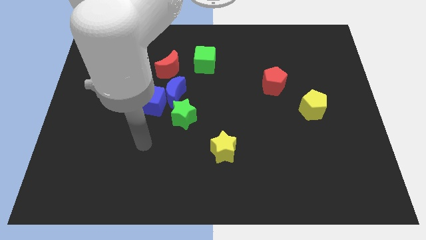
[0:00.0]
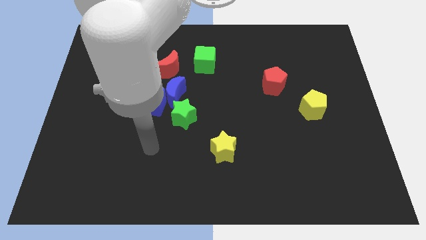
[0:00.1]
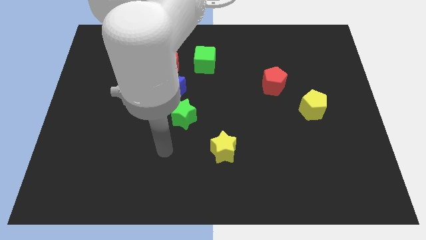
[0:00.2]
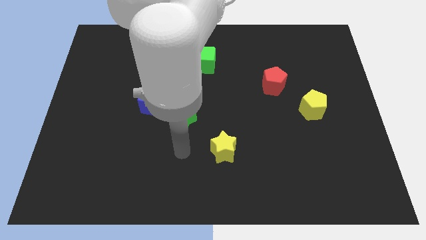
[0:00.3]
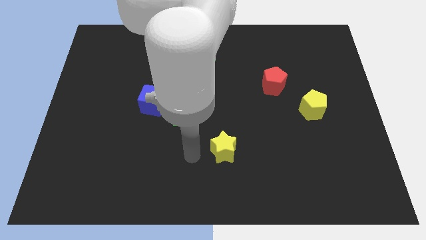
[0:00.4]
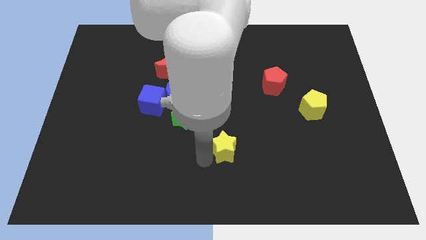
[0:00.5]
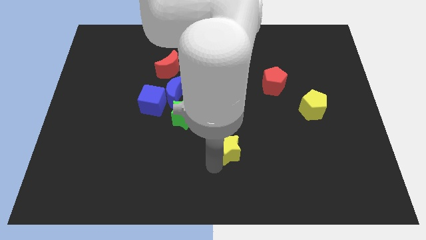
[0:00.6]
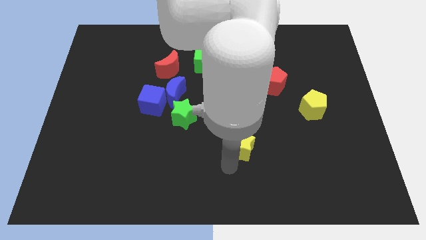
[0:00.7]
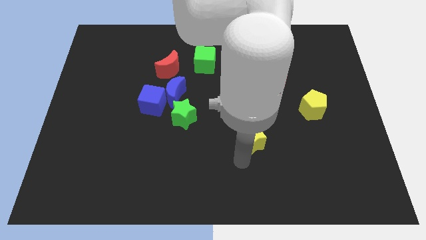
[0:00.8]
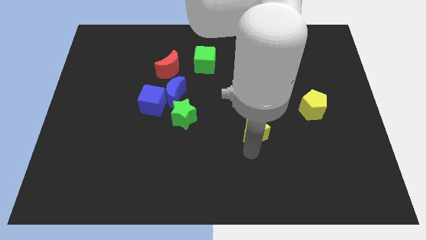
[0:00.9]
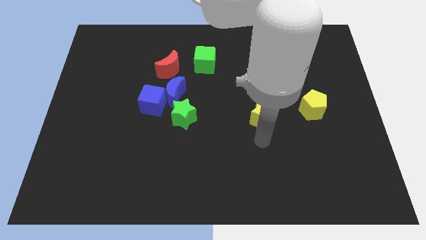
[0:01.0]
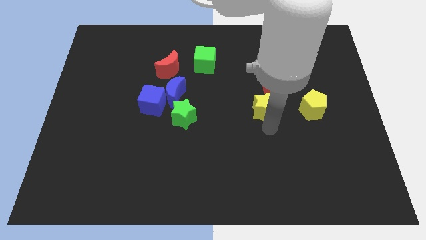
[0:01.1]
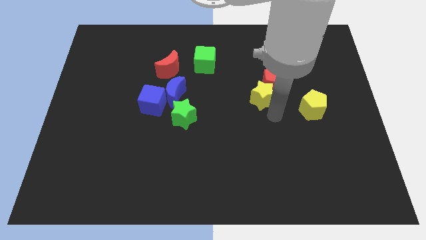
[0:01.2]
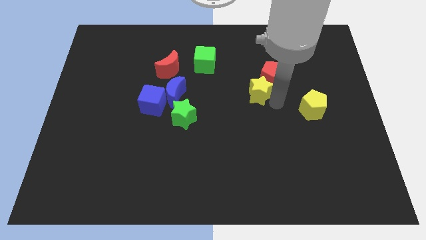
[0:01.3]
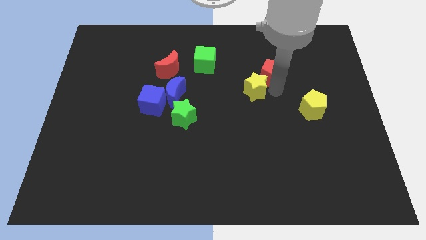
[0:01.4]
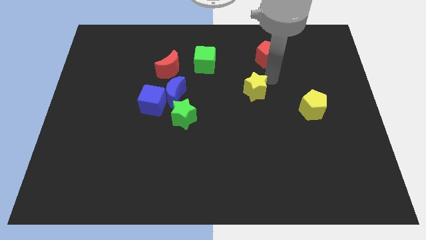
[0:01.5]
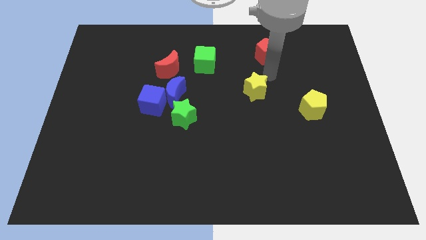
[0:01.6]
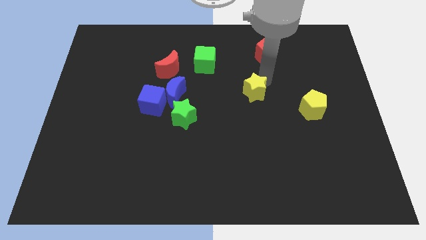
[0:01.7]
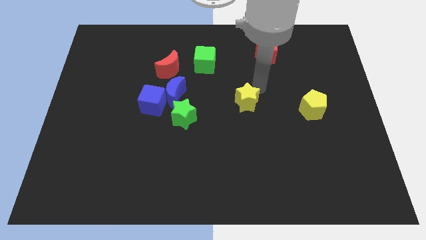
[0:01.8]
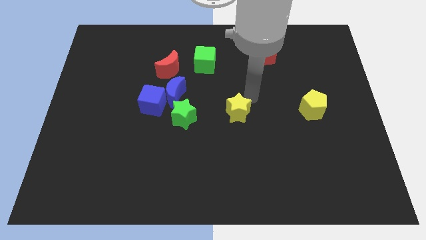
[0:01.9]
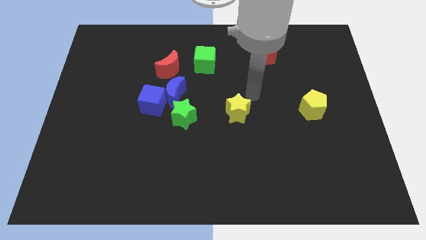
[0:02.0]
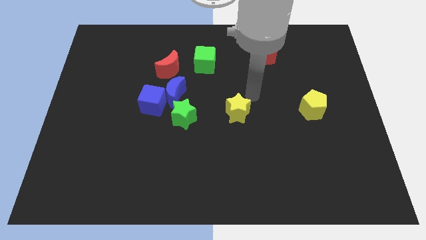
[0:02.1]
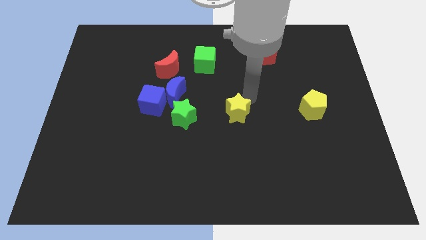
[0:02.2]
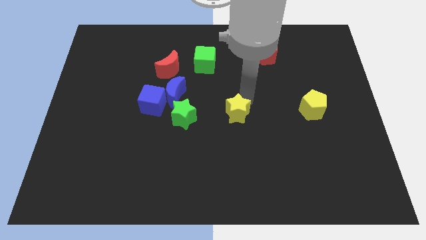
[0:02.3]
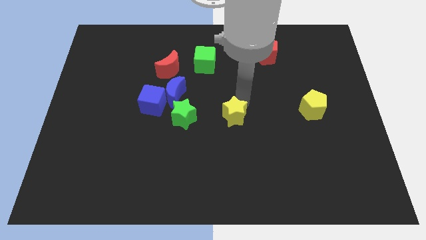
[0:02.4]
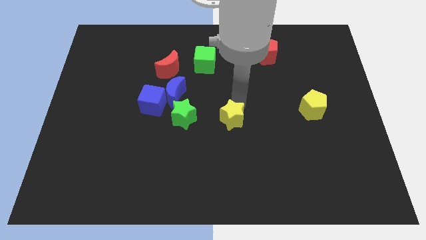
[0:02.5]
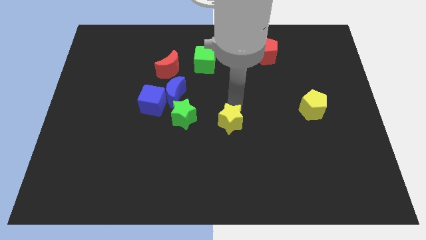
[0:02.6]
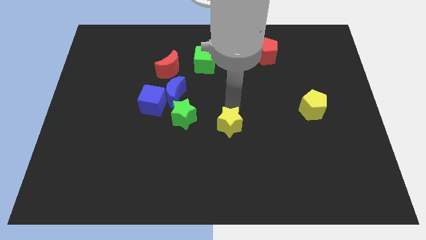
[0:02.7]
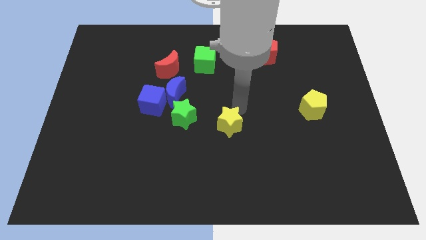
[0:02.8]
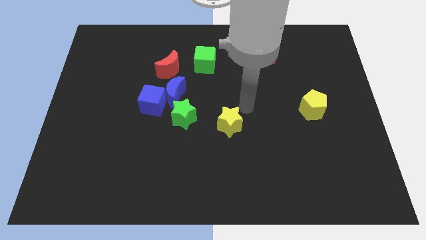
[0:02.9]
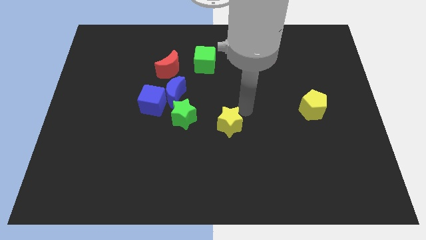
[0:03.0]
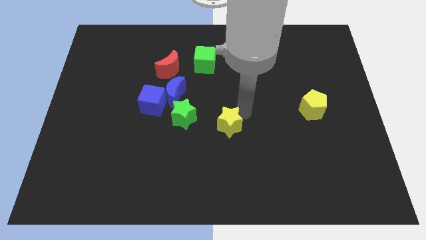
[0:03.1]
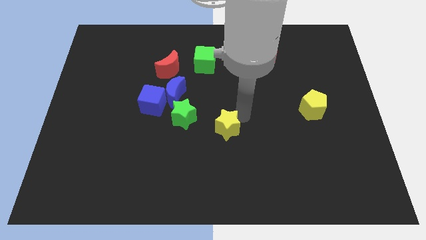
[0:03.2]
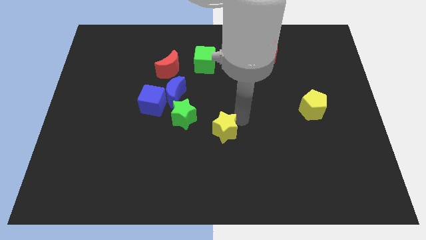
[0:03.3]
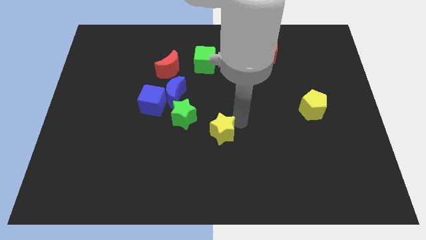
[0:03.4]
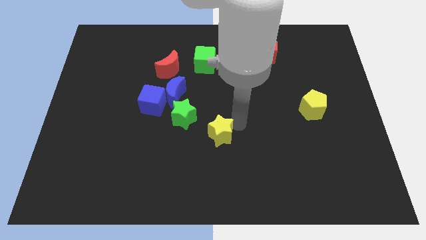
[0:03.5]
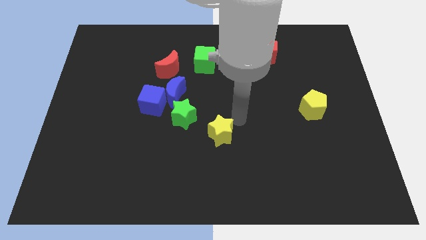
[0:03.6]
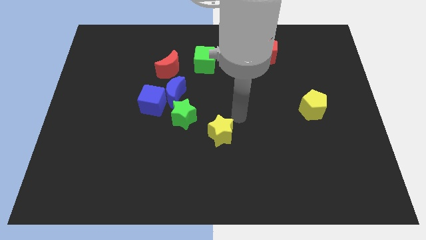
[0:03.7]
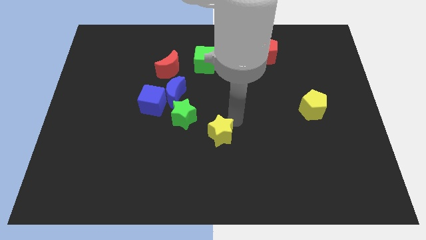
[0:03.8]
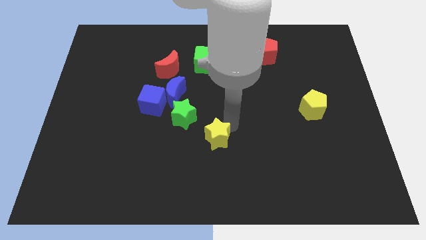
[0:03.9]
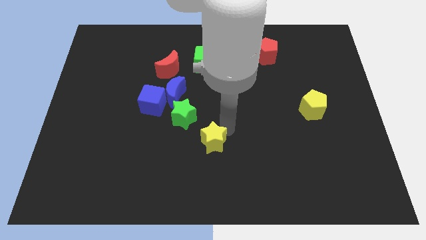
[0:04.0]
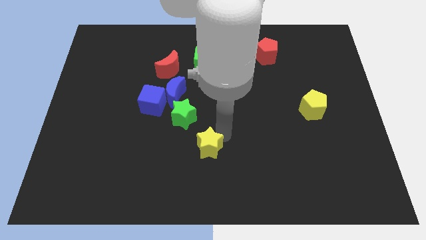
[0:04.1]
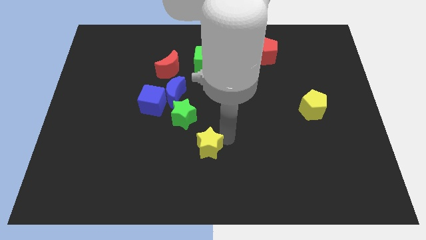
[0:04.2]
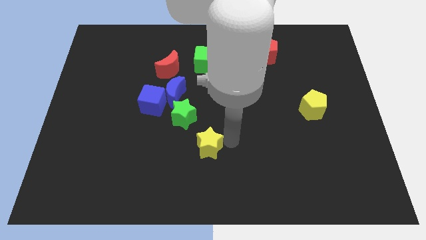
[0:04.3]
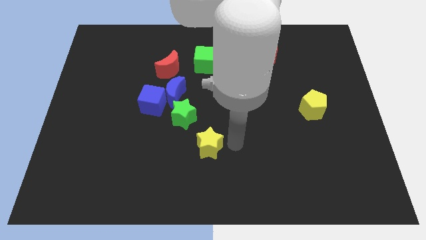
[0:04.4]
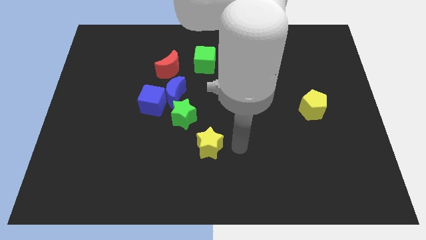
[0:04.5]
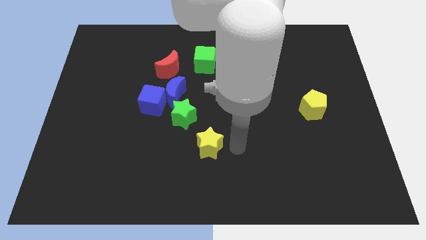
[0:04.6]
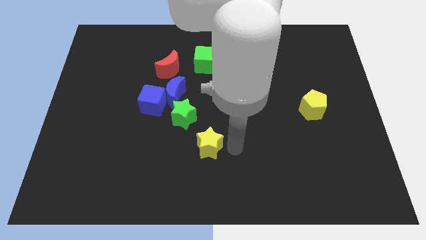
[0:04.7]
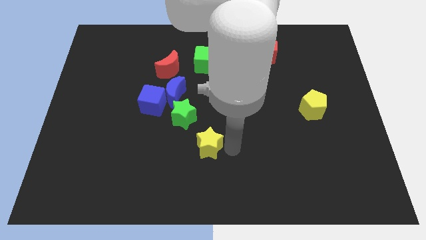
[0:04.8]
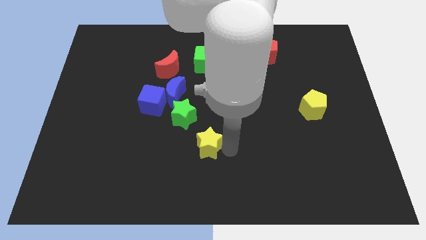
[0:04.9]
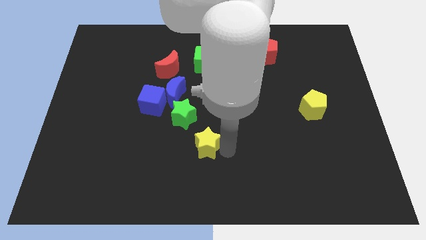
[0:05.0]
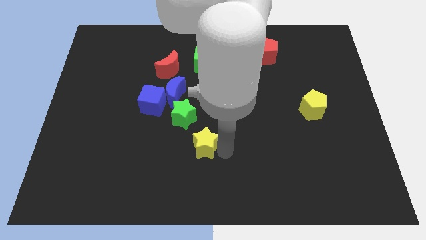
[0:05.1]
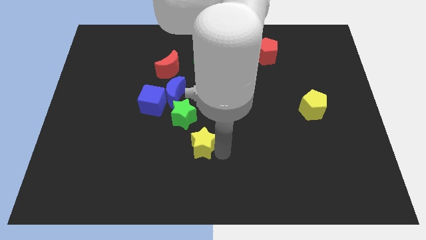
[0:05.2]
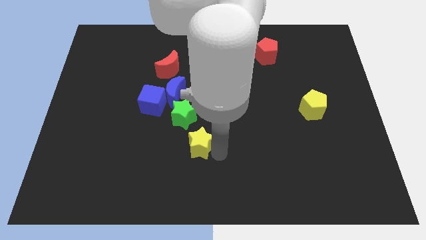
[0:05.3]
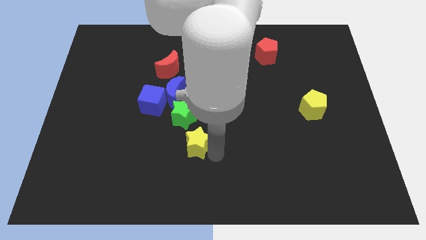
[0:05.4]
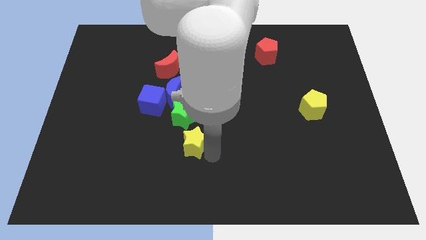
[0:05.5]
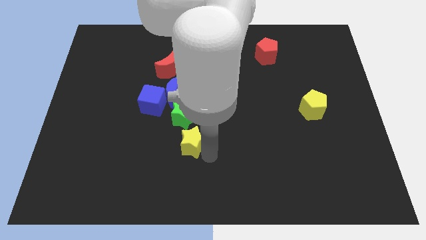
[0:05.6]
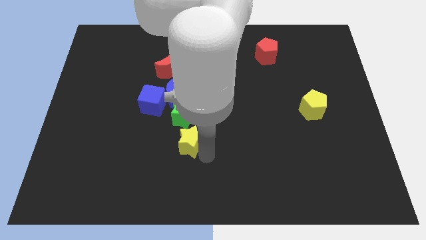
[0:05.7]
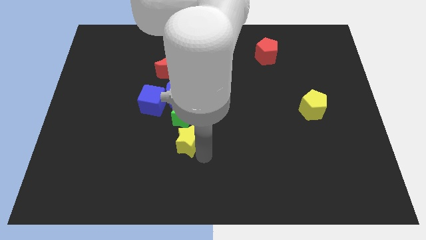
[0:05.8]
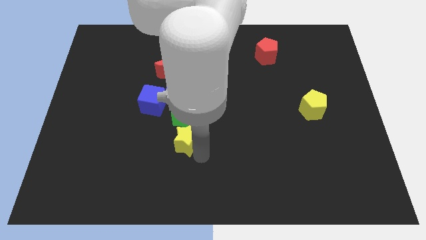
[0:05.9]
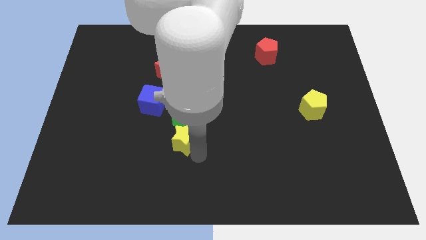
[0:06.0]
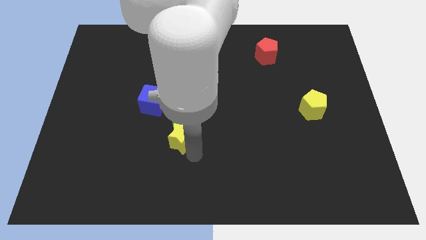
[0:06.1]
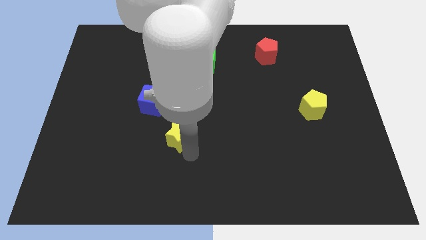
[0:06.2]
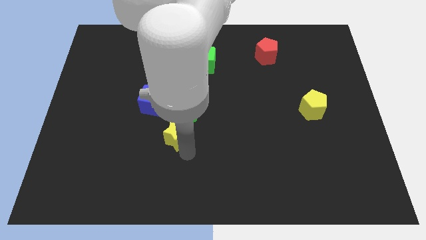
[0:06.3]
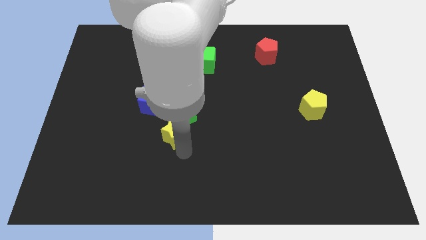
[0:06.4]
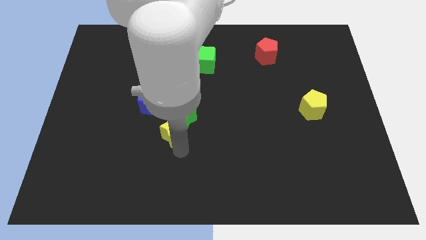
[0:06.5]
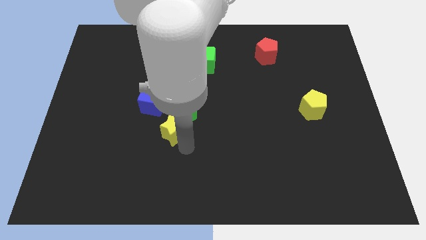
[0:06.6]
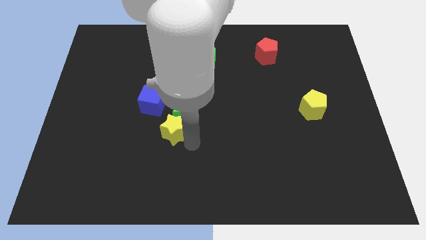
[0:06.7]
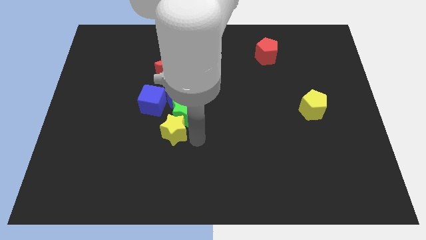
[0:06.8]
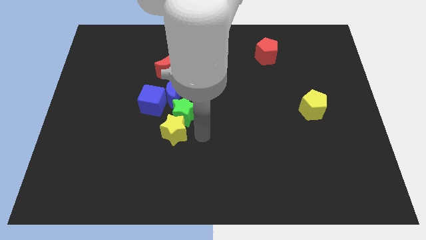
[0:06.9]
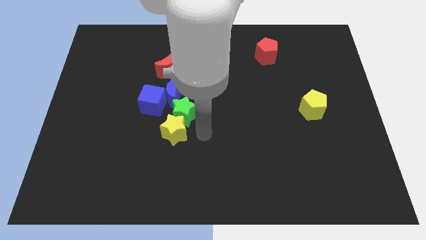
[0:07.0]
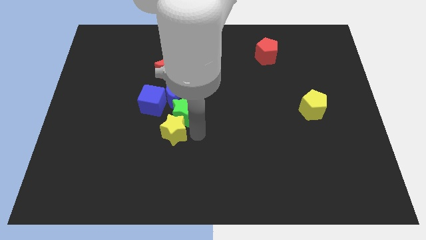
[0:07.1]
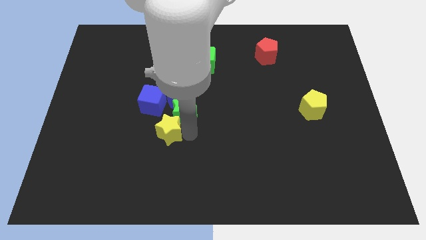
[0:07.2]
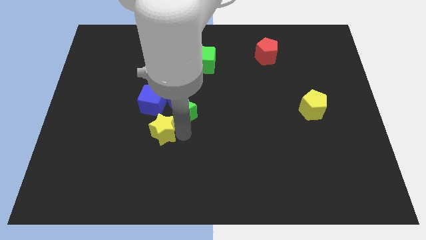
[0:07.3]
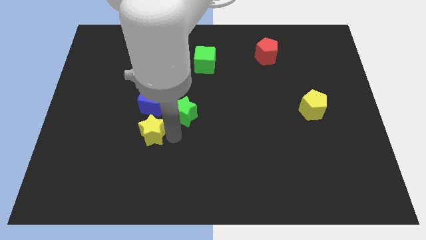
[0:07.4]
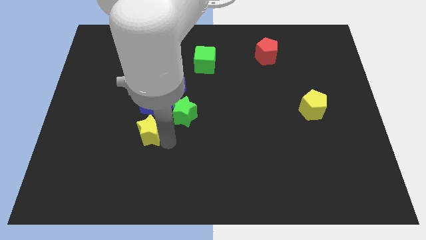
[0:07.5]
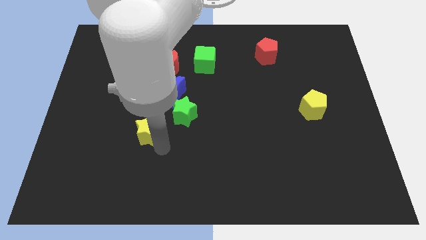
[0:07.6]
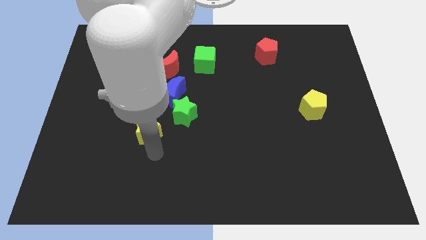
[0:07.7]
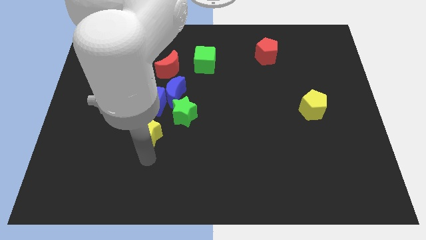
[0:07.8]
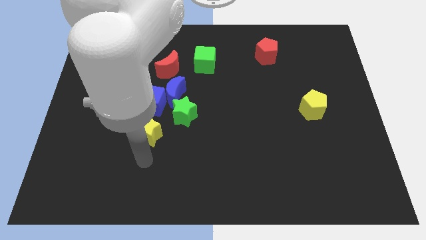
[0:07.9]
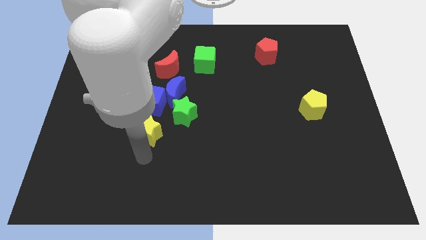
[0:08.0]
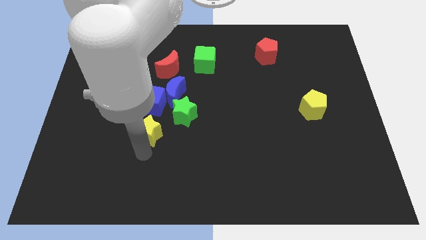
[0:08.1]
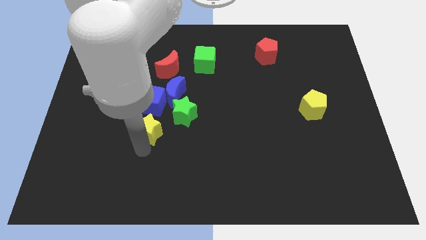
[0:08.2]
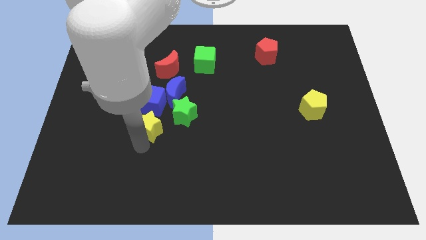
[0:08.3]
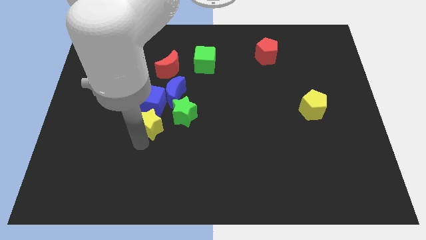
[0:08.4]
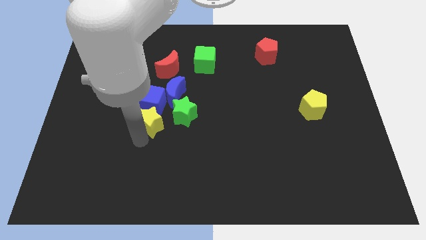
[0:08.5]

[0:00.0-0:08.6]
move the yellow star next to the blue cube
